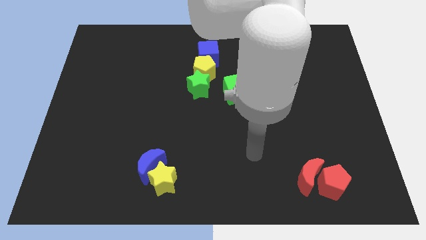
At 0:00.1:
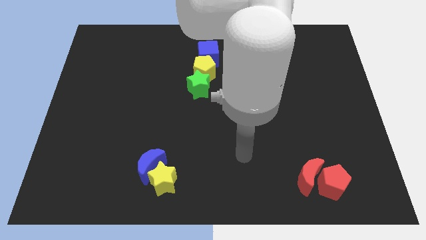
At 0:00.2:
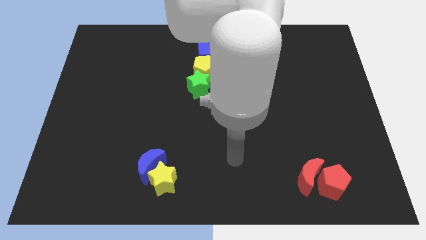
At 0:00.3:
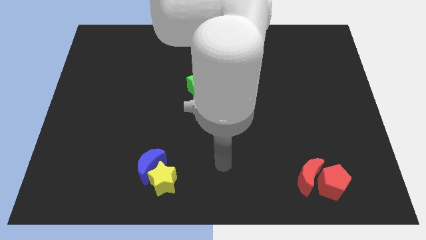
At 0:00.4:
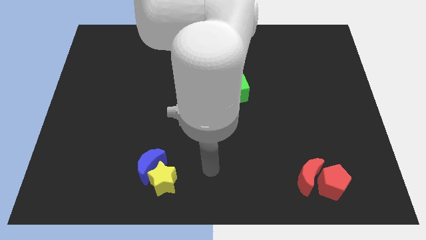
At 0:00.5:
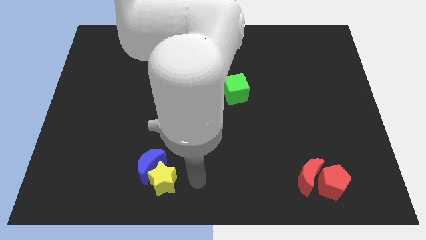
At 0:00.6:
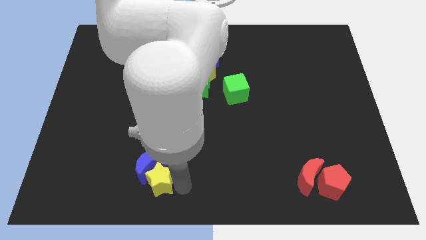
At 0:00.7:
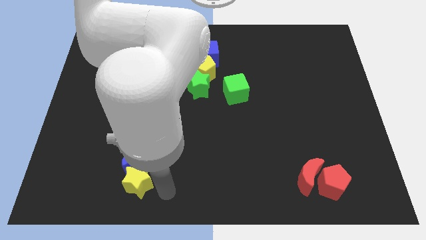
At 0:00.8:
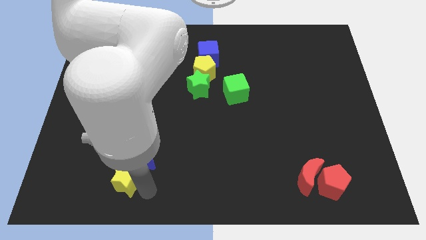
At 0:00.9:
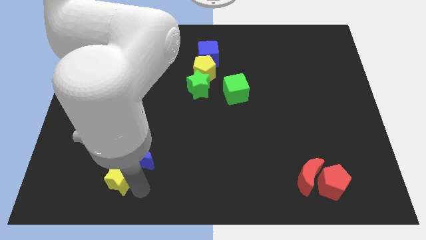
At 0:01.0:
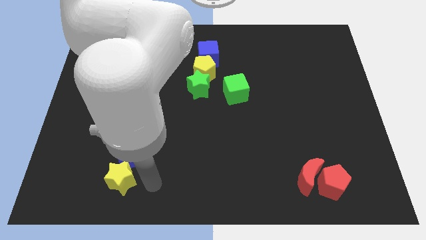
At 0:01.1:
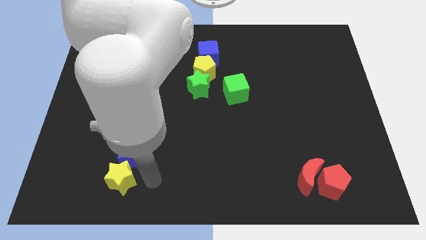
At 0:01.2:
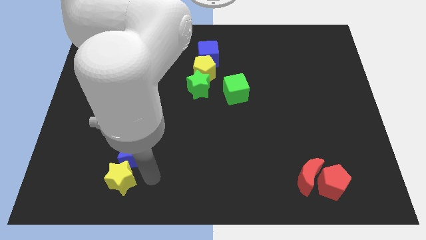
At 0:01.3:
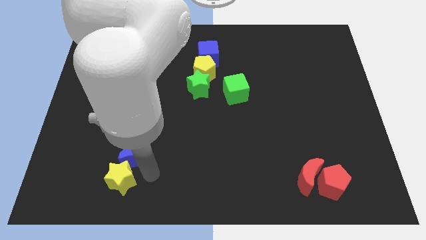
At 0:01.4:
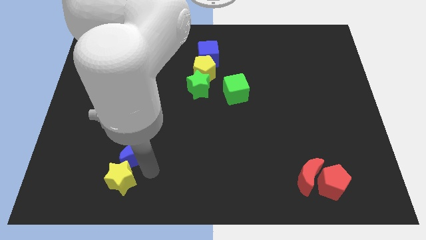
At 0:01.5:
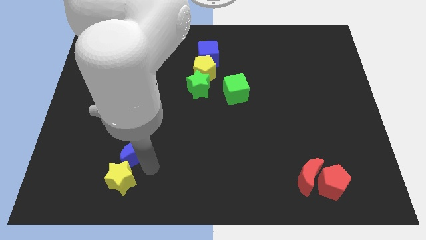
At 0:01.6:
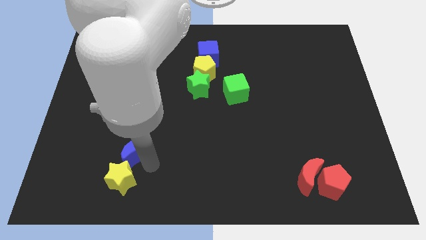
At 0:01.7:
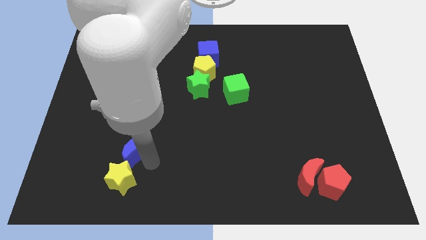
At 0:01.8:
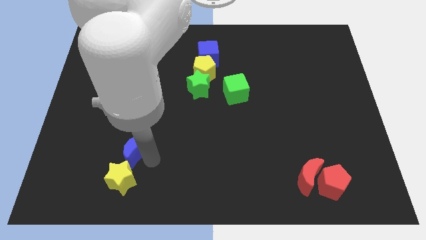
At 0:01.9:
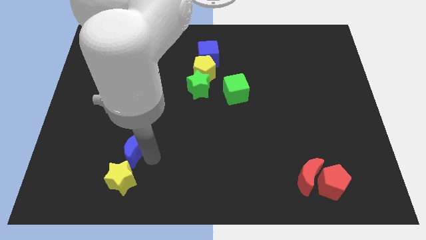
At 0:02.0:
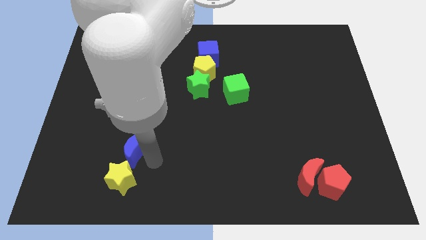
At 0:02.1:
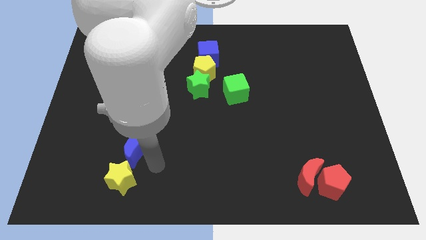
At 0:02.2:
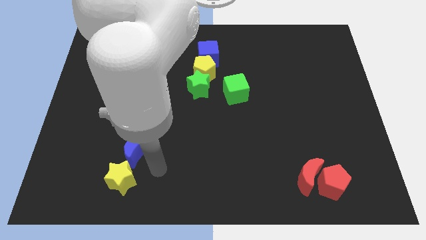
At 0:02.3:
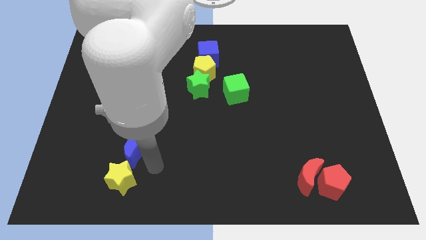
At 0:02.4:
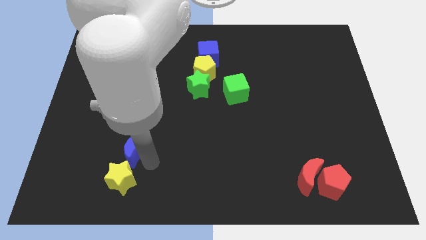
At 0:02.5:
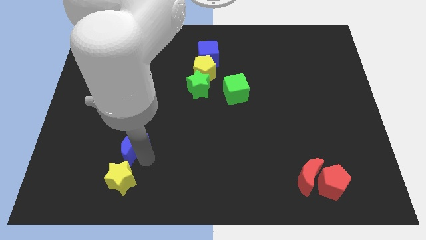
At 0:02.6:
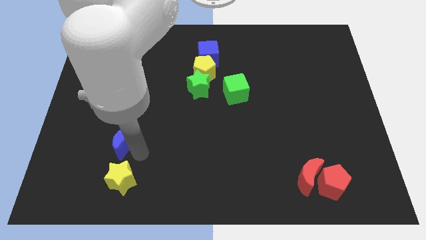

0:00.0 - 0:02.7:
push the blue moon somewhat upwards and to the left diagonally

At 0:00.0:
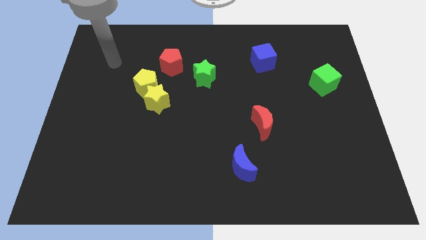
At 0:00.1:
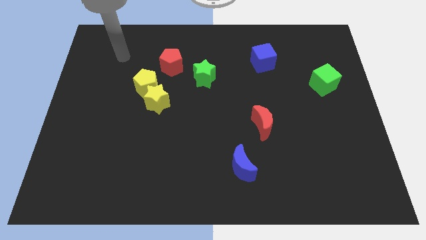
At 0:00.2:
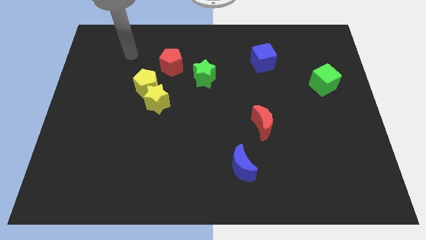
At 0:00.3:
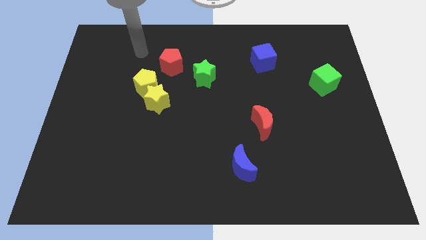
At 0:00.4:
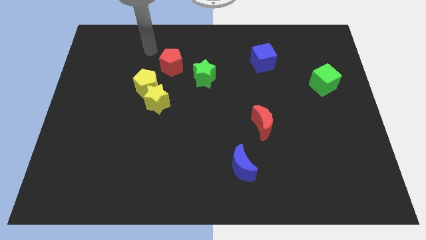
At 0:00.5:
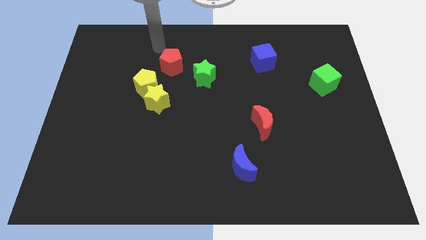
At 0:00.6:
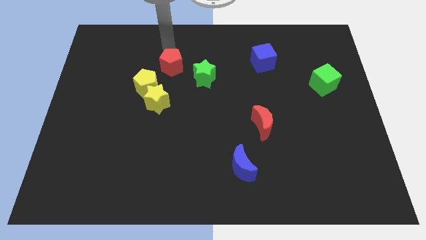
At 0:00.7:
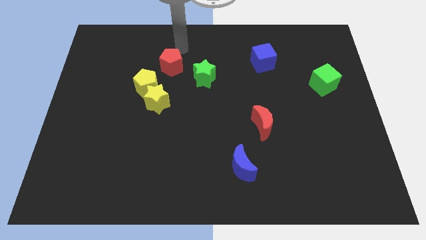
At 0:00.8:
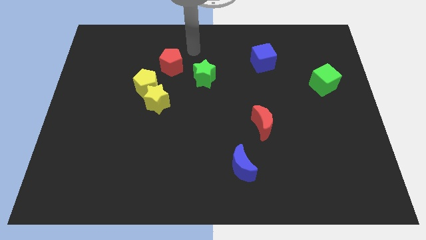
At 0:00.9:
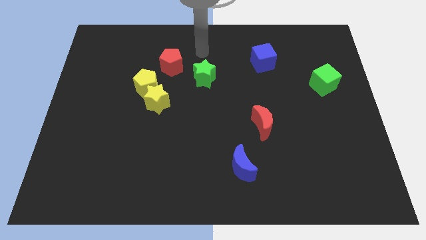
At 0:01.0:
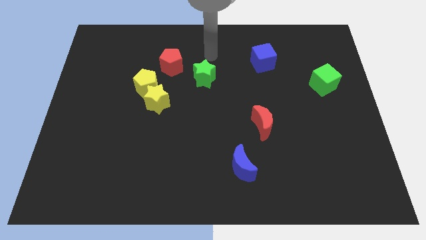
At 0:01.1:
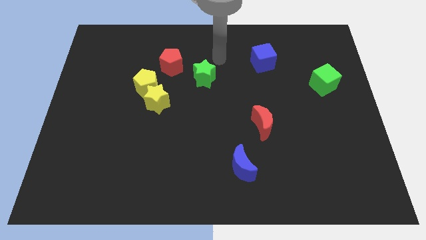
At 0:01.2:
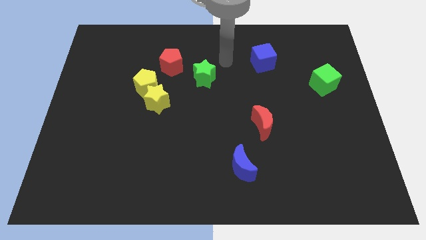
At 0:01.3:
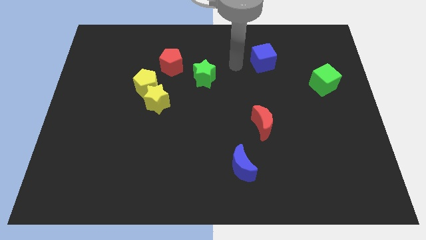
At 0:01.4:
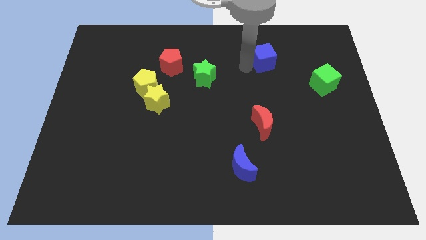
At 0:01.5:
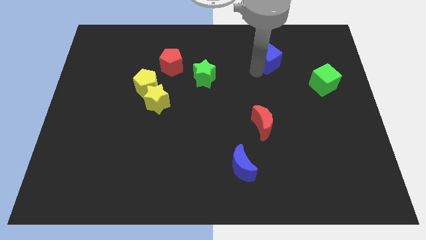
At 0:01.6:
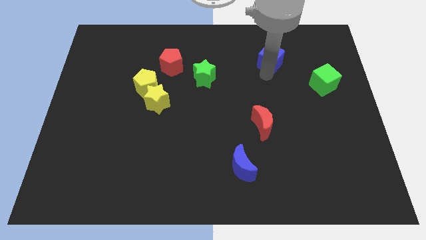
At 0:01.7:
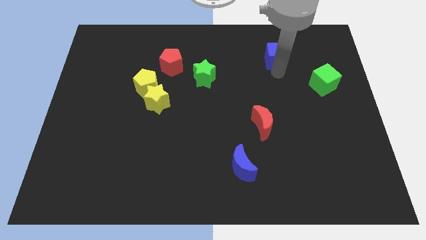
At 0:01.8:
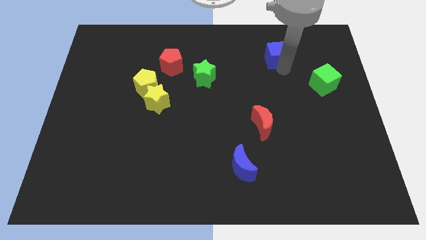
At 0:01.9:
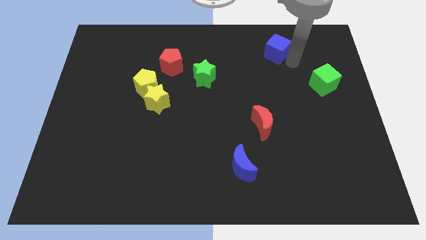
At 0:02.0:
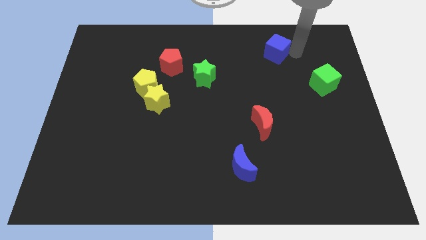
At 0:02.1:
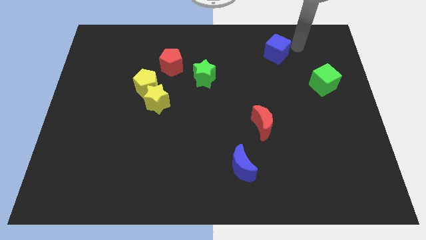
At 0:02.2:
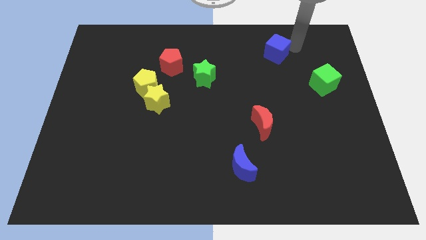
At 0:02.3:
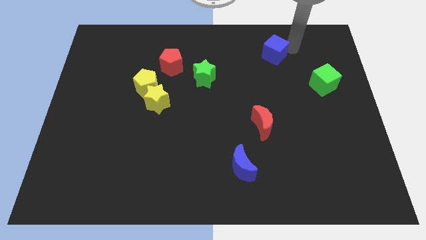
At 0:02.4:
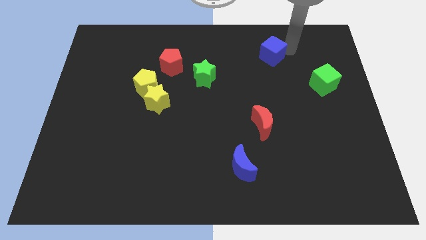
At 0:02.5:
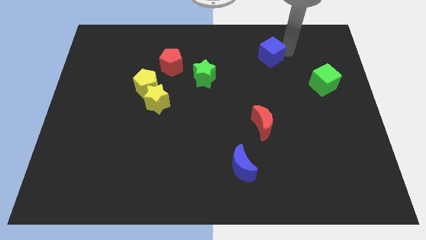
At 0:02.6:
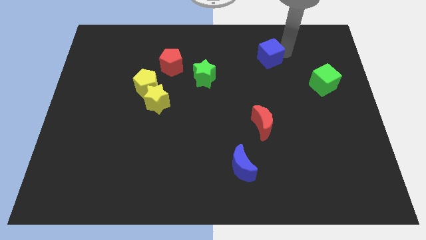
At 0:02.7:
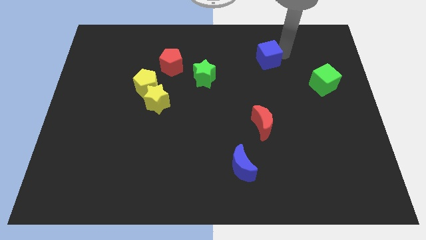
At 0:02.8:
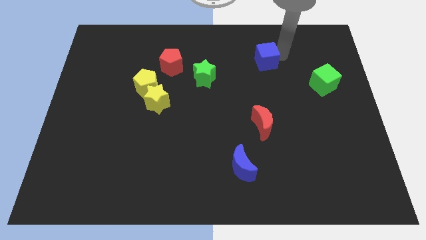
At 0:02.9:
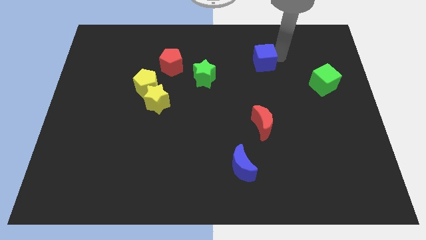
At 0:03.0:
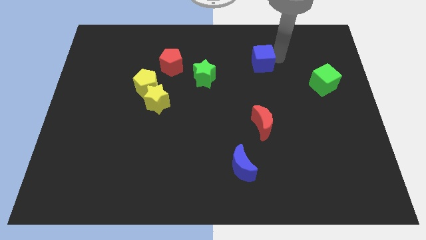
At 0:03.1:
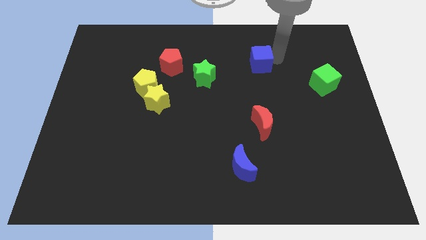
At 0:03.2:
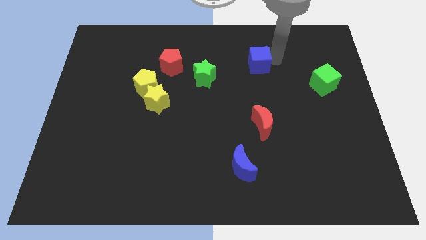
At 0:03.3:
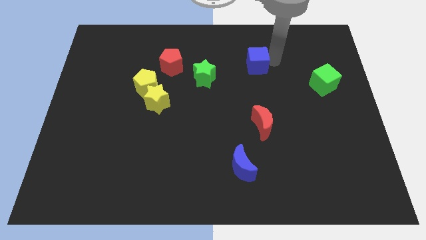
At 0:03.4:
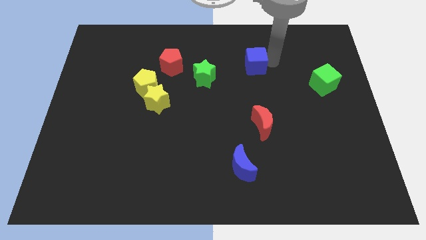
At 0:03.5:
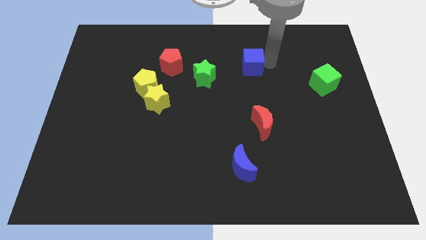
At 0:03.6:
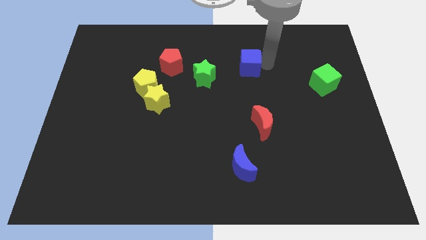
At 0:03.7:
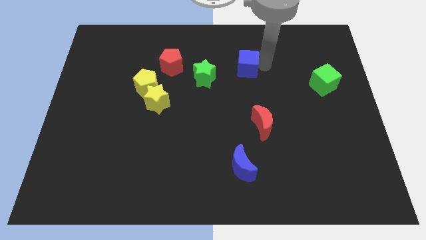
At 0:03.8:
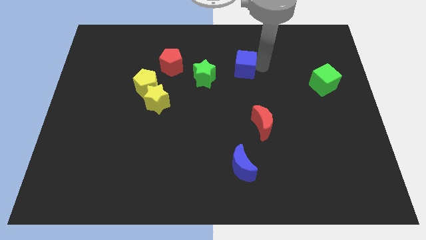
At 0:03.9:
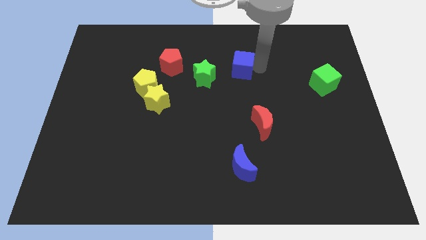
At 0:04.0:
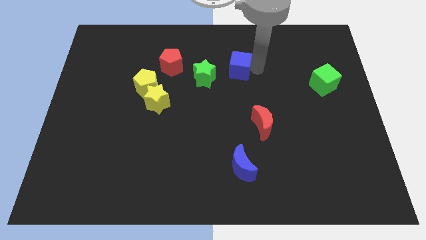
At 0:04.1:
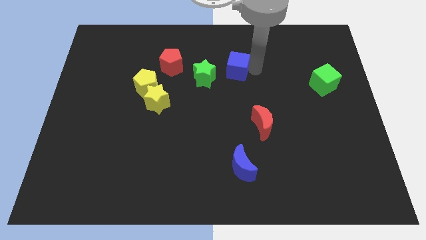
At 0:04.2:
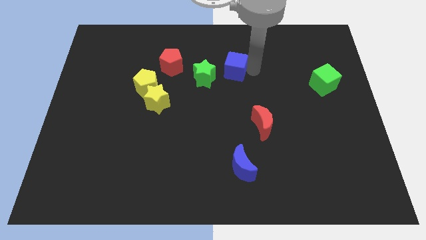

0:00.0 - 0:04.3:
slide the blue cube a little left

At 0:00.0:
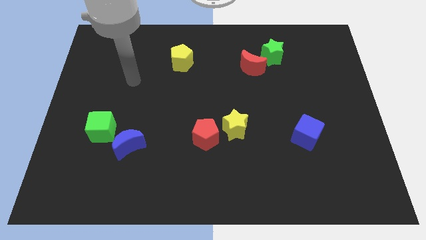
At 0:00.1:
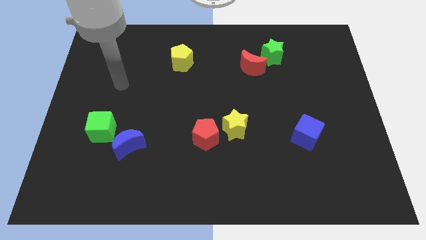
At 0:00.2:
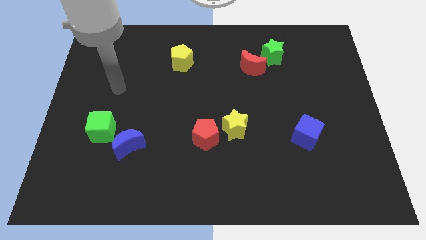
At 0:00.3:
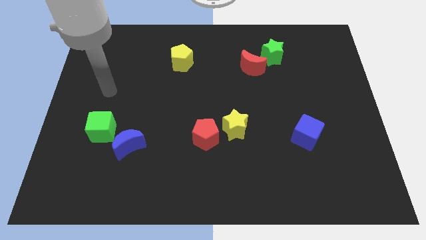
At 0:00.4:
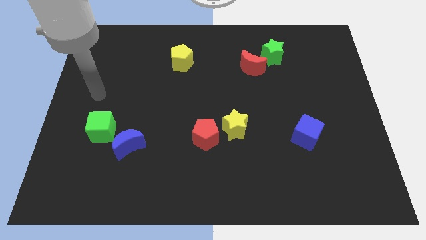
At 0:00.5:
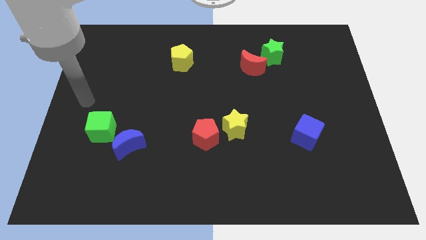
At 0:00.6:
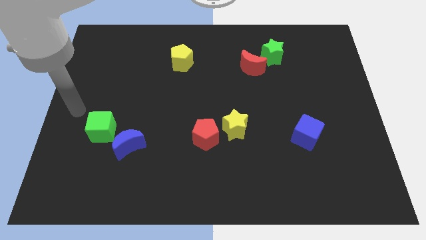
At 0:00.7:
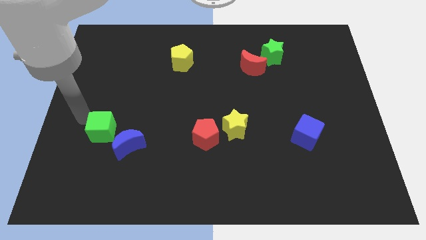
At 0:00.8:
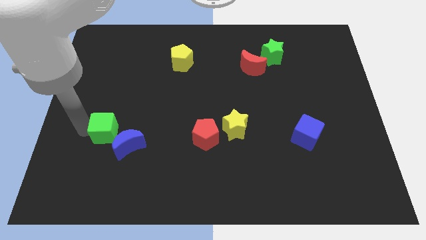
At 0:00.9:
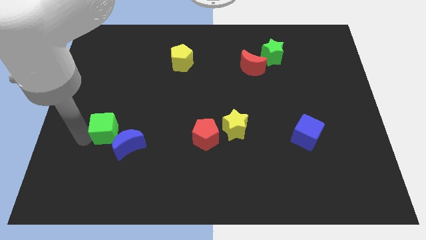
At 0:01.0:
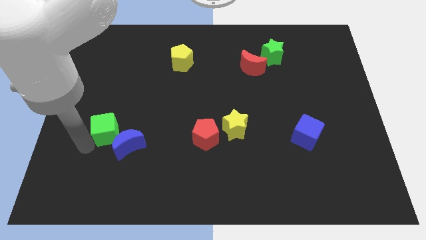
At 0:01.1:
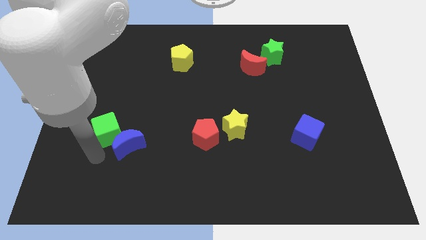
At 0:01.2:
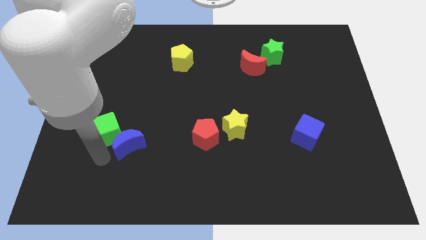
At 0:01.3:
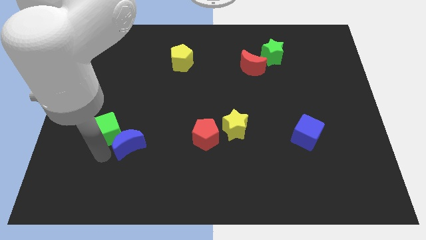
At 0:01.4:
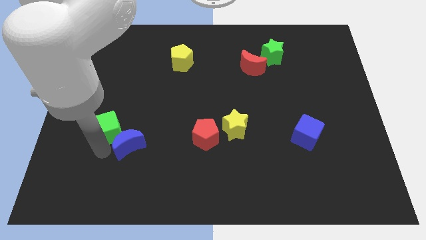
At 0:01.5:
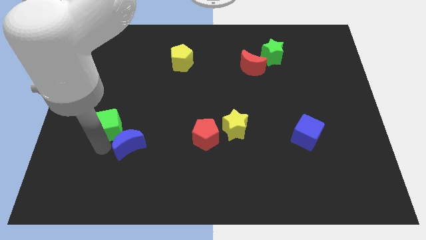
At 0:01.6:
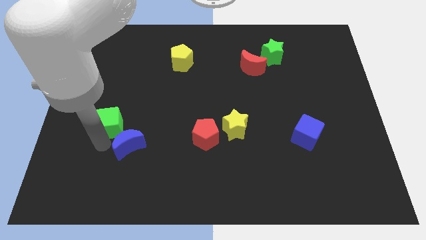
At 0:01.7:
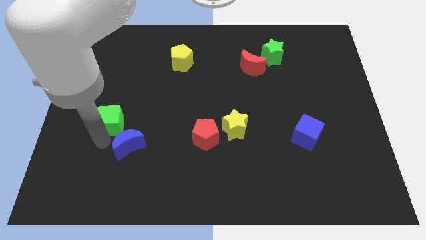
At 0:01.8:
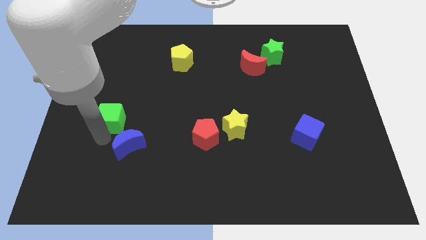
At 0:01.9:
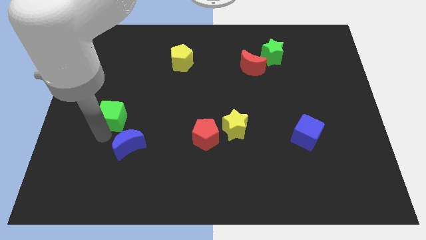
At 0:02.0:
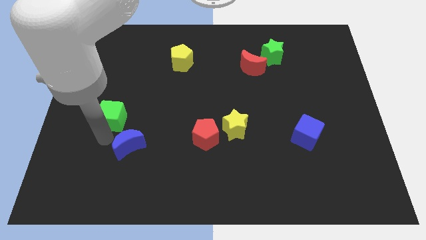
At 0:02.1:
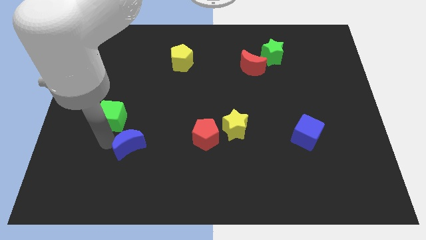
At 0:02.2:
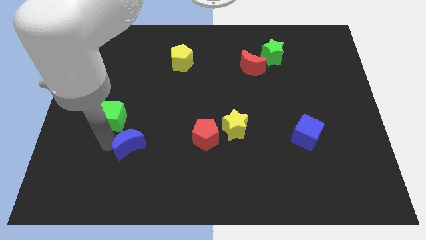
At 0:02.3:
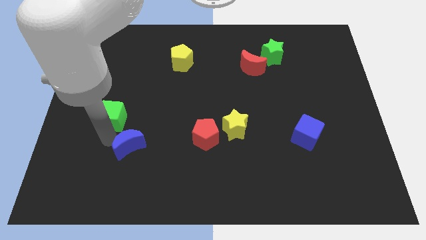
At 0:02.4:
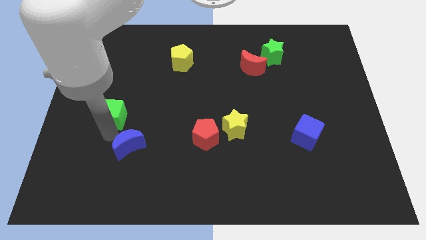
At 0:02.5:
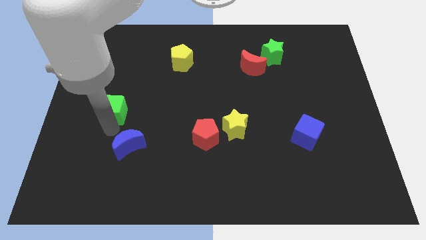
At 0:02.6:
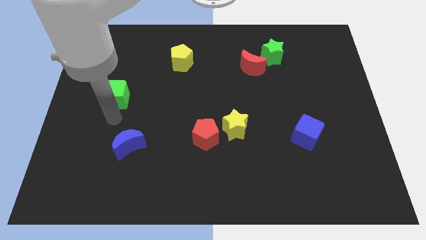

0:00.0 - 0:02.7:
move the green cube a little bit upwards
